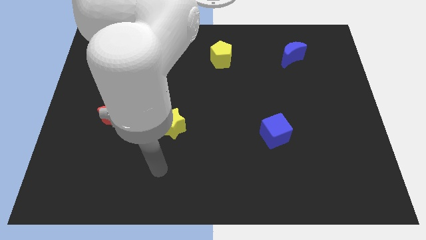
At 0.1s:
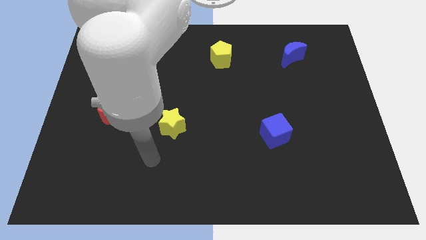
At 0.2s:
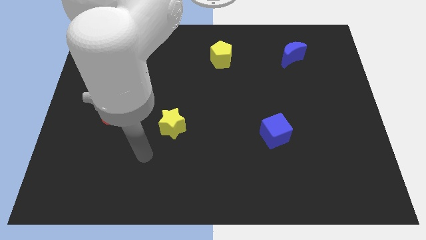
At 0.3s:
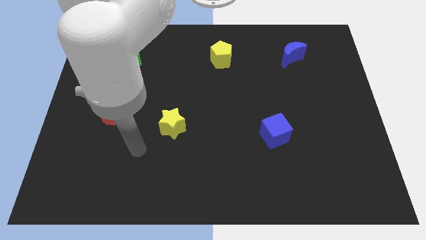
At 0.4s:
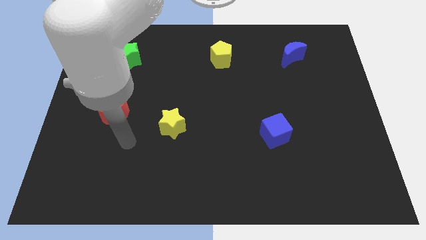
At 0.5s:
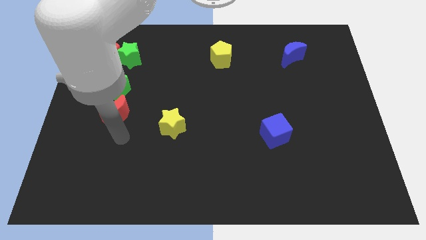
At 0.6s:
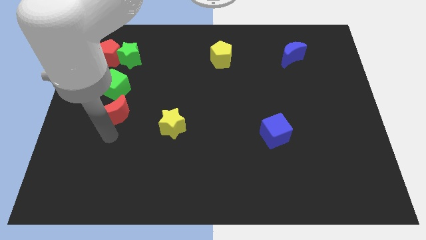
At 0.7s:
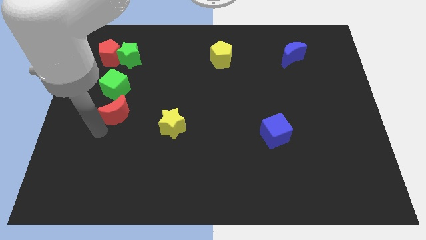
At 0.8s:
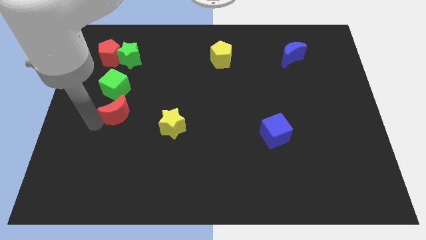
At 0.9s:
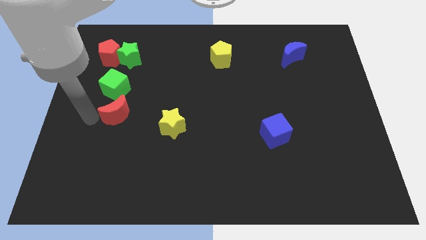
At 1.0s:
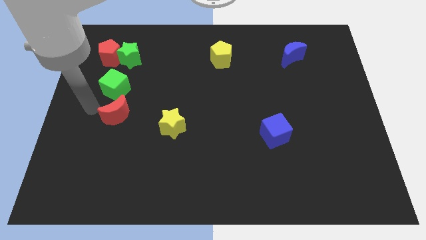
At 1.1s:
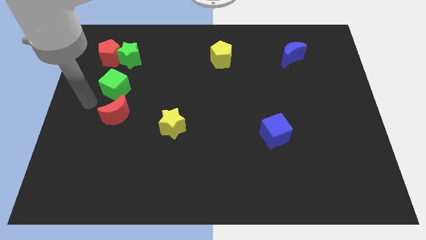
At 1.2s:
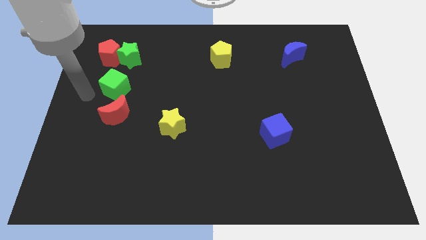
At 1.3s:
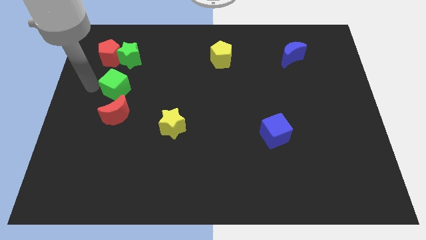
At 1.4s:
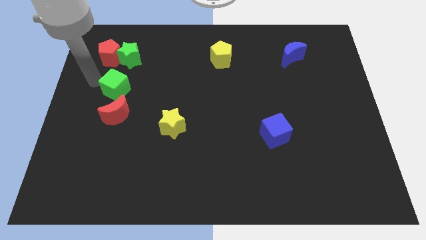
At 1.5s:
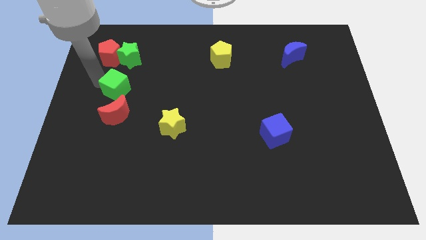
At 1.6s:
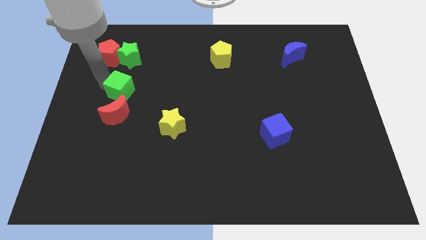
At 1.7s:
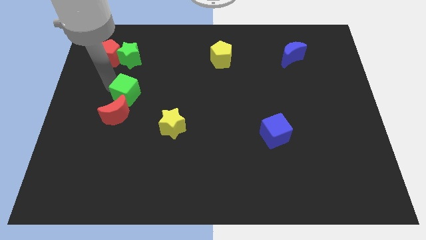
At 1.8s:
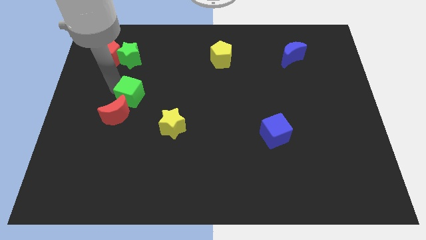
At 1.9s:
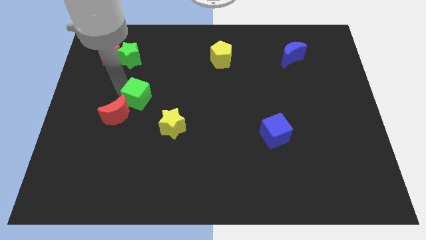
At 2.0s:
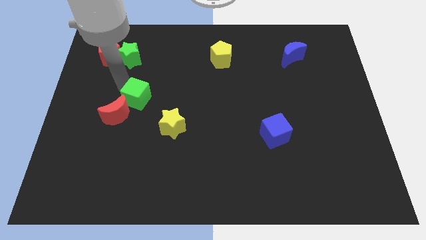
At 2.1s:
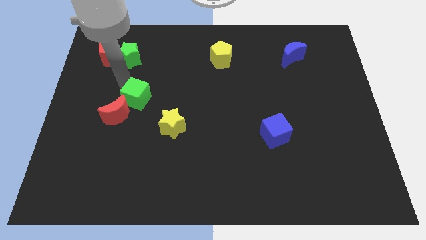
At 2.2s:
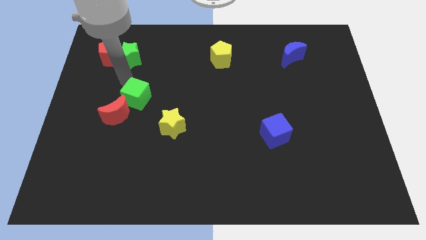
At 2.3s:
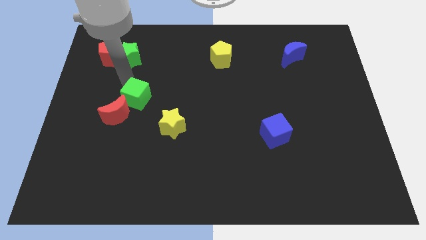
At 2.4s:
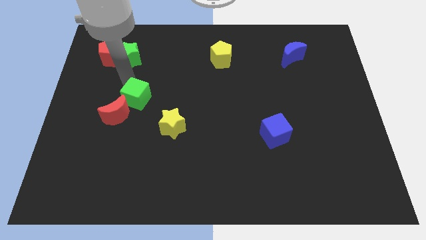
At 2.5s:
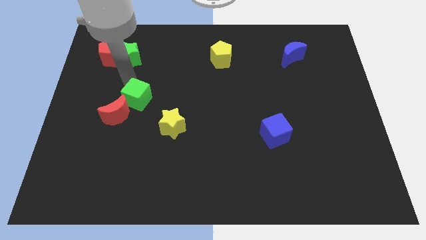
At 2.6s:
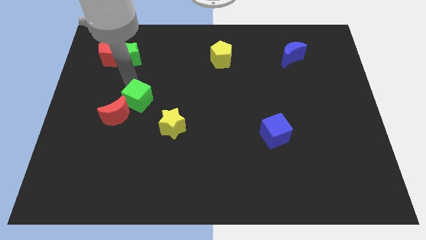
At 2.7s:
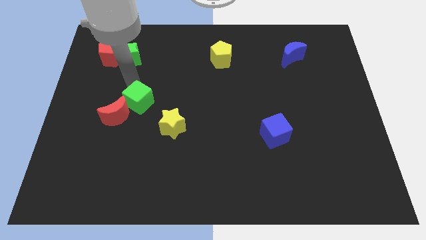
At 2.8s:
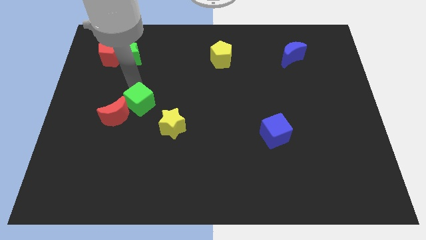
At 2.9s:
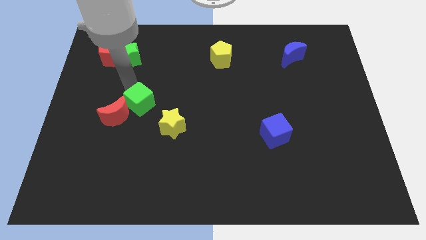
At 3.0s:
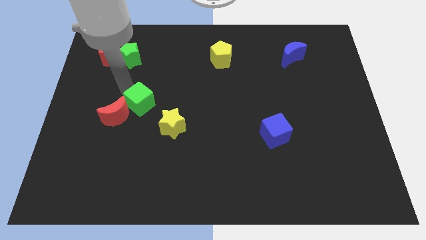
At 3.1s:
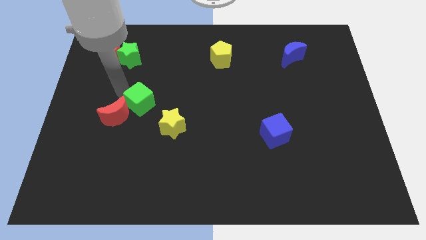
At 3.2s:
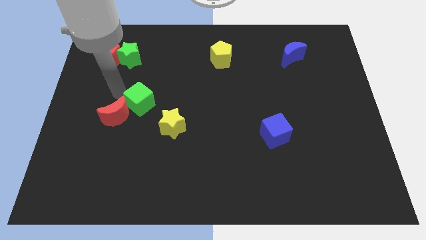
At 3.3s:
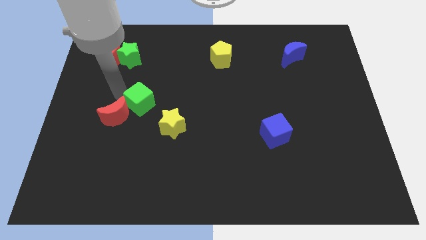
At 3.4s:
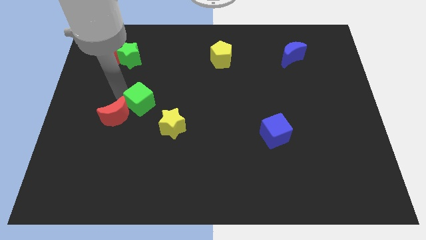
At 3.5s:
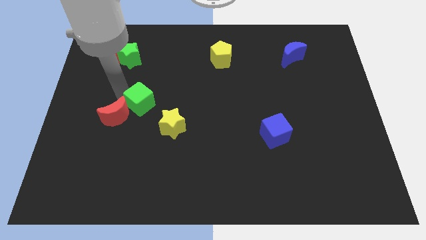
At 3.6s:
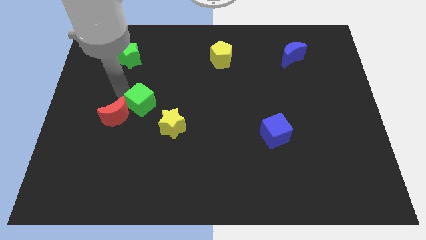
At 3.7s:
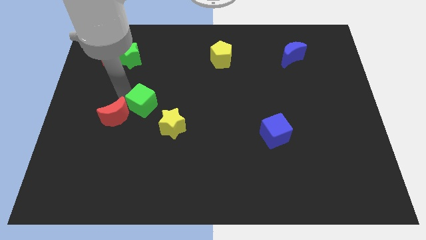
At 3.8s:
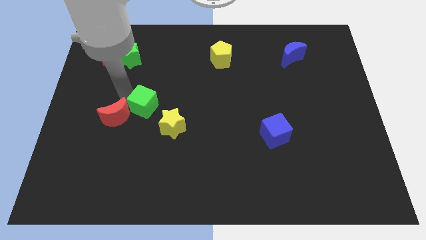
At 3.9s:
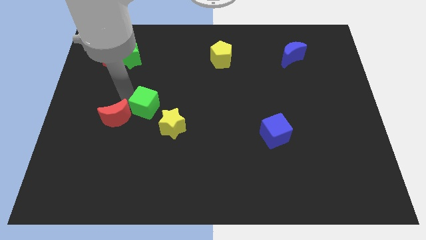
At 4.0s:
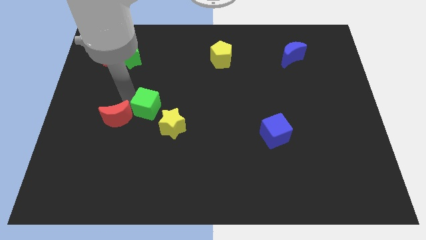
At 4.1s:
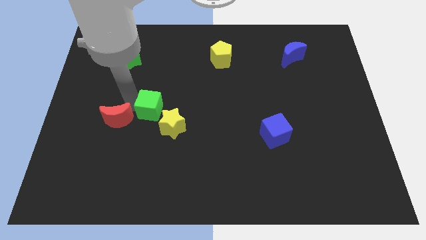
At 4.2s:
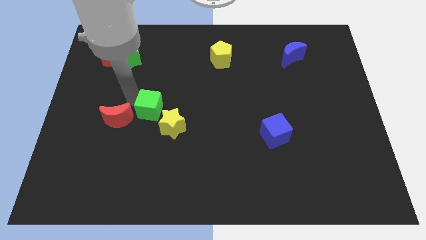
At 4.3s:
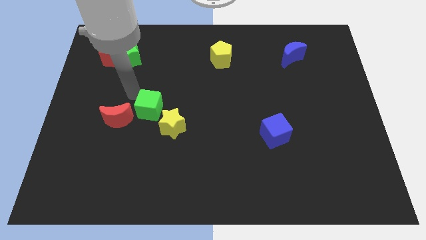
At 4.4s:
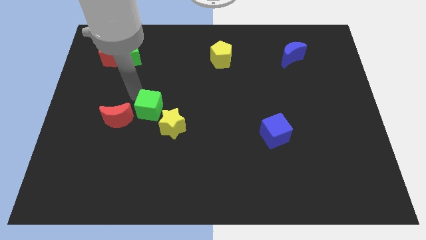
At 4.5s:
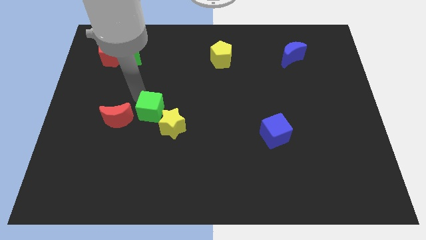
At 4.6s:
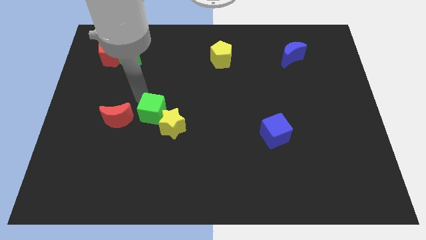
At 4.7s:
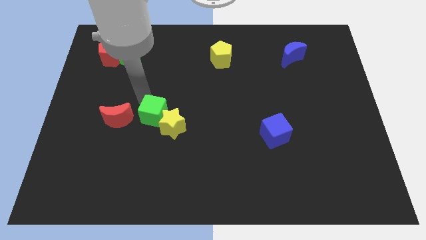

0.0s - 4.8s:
push the green cube to the yellow star

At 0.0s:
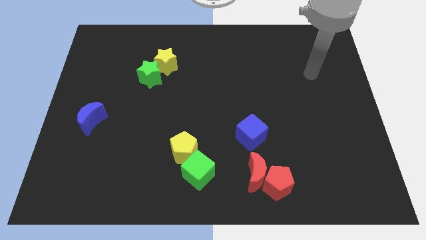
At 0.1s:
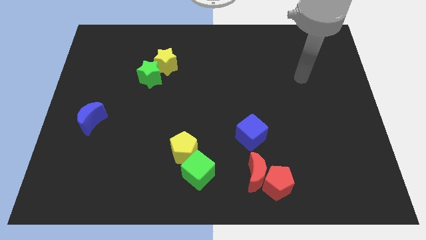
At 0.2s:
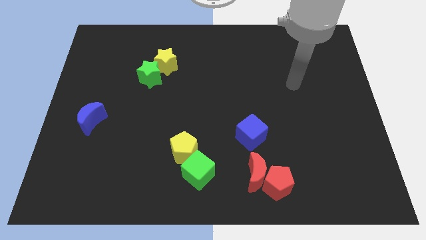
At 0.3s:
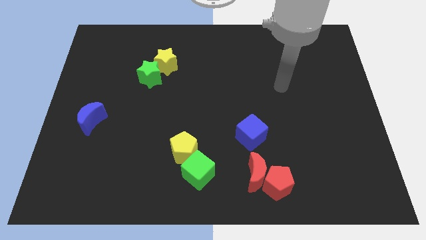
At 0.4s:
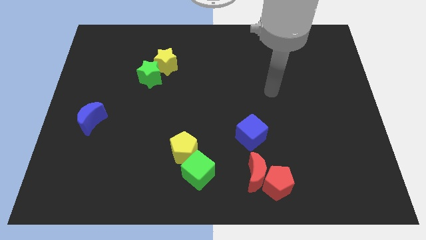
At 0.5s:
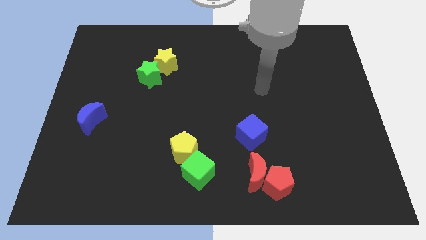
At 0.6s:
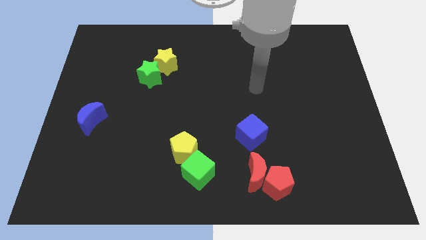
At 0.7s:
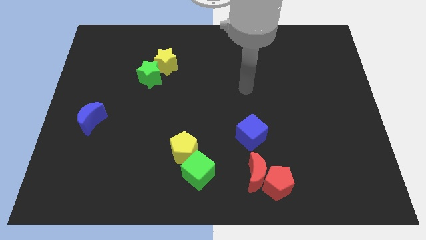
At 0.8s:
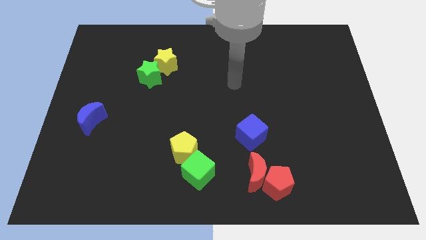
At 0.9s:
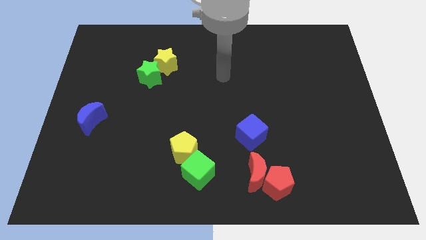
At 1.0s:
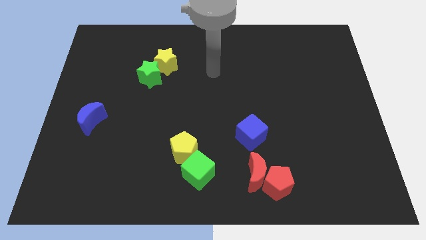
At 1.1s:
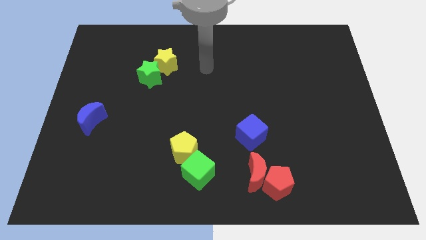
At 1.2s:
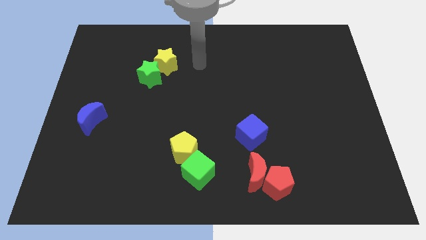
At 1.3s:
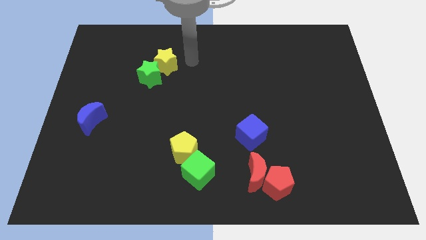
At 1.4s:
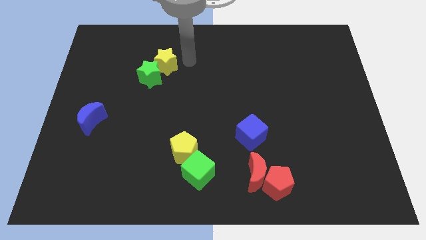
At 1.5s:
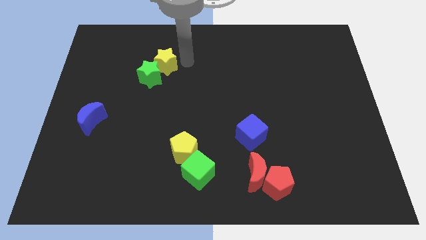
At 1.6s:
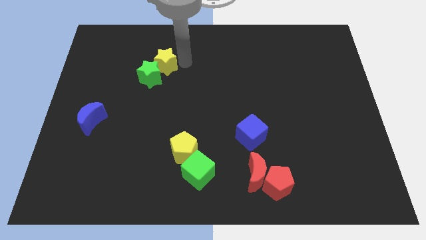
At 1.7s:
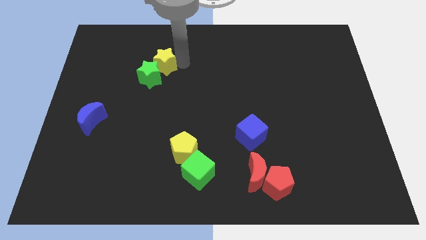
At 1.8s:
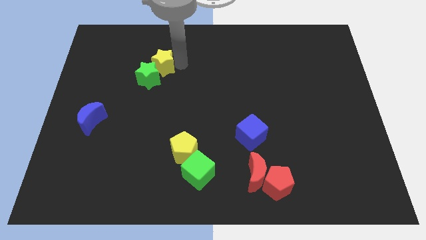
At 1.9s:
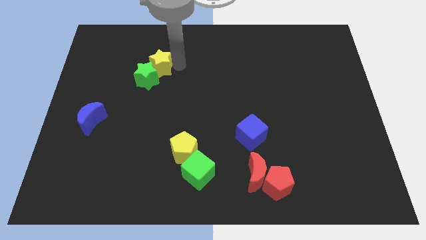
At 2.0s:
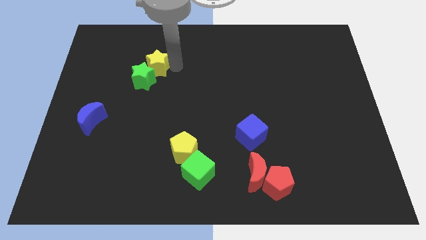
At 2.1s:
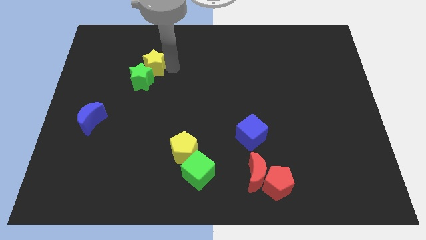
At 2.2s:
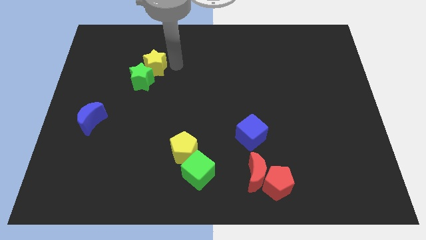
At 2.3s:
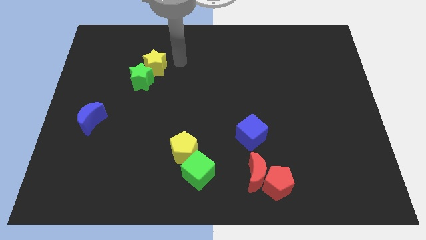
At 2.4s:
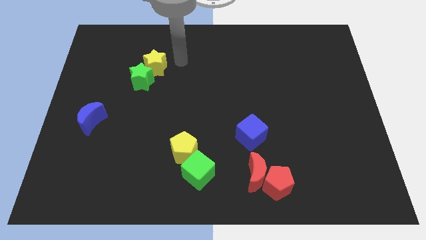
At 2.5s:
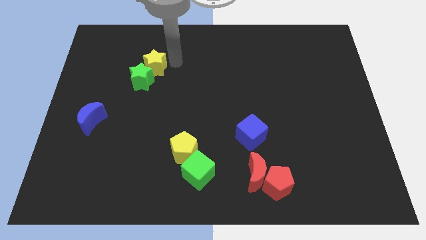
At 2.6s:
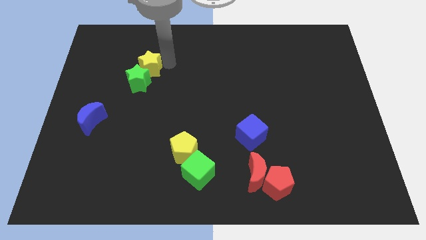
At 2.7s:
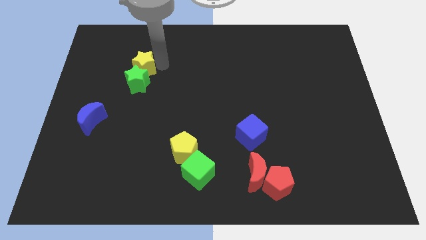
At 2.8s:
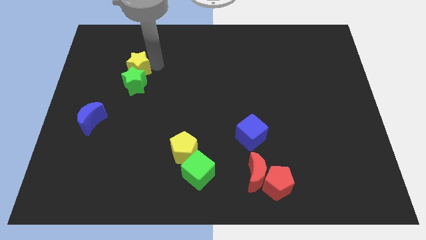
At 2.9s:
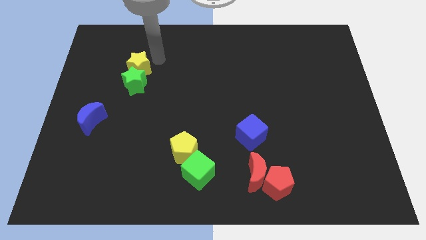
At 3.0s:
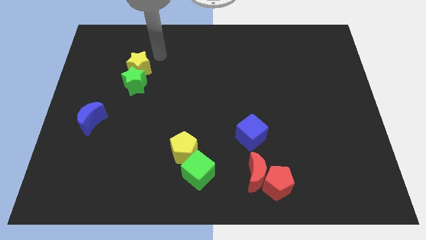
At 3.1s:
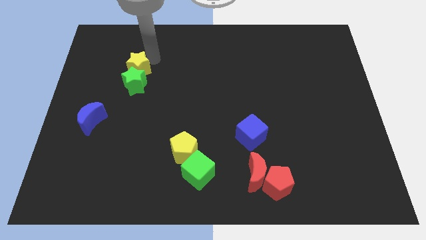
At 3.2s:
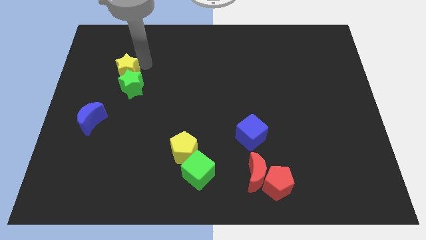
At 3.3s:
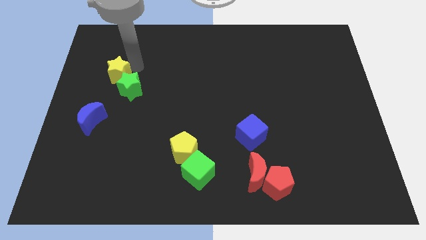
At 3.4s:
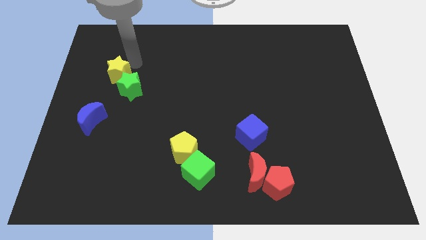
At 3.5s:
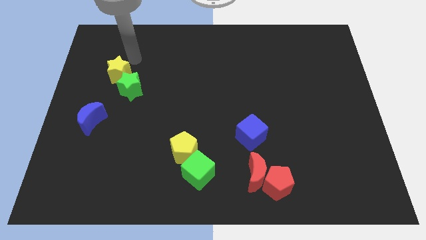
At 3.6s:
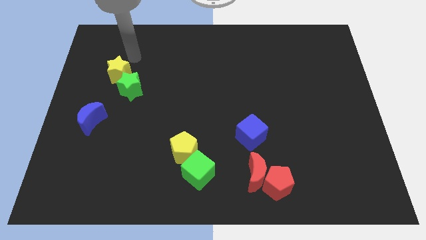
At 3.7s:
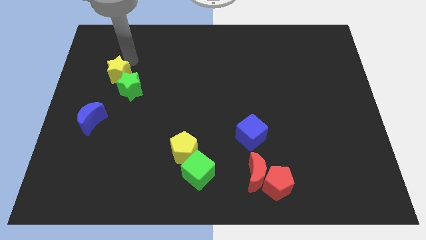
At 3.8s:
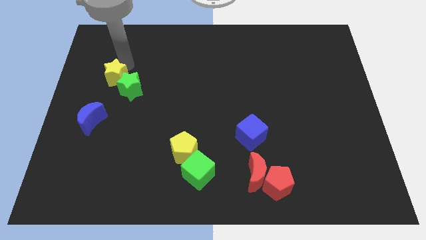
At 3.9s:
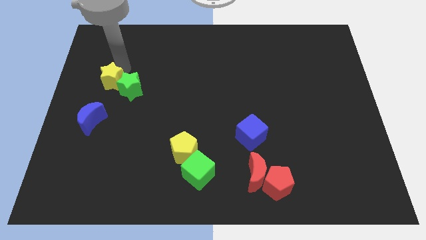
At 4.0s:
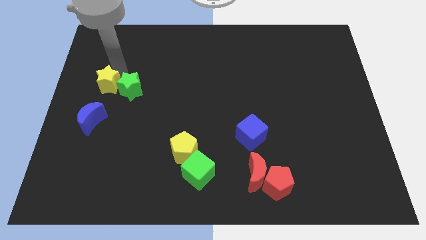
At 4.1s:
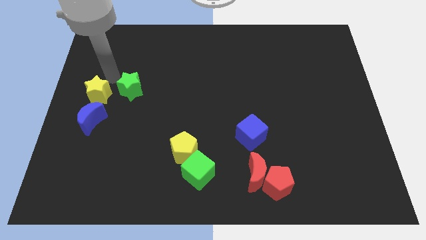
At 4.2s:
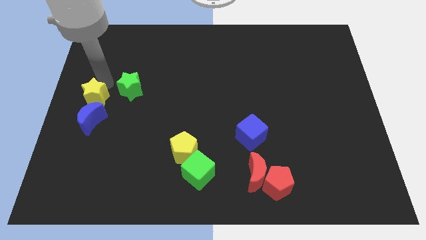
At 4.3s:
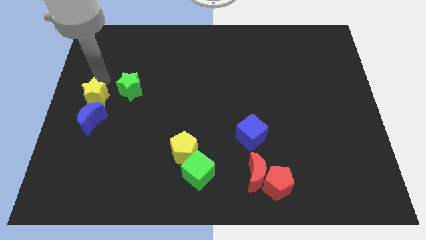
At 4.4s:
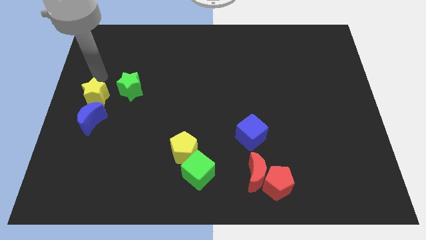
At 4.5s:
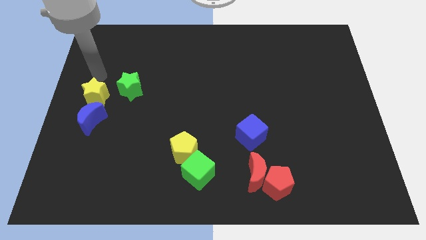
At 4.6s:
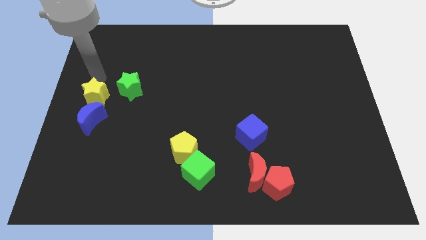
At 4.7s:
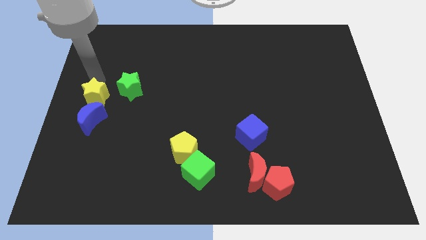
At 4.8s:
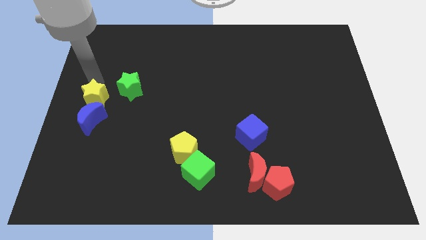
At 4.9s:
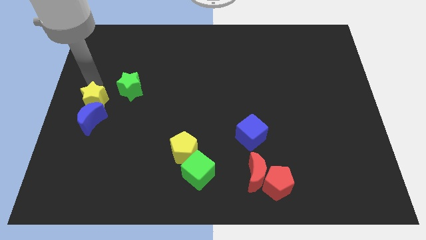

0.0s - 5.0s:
slide the yellow star close to the blue moon
